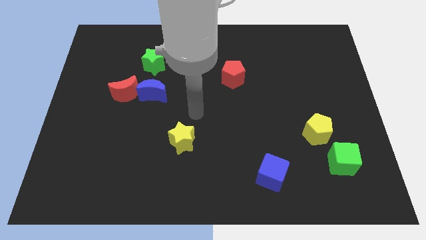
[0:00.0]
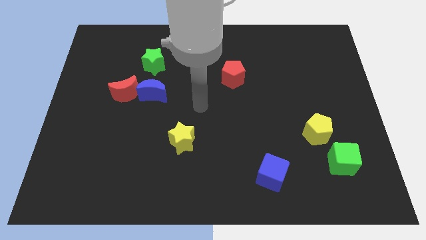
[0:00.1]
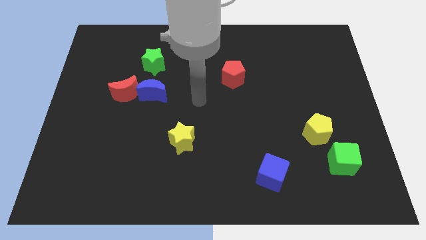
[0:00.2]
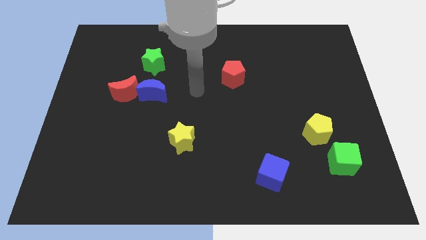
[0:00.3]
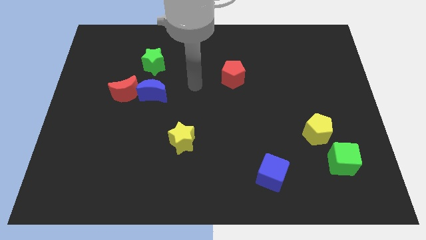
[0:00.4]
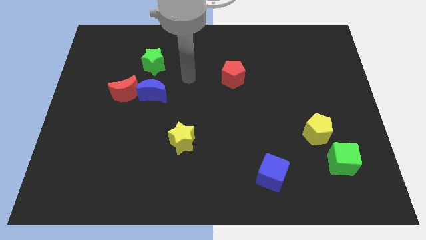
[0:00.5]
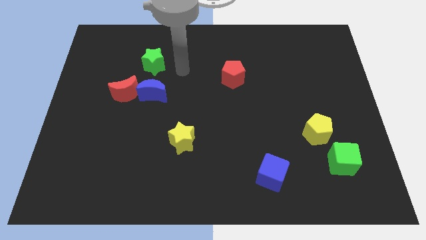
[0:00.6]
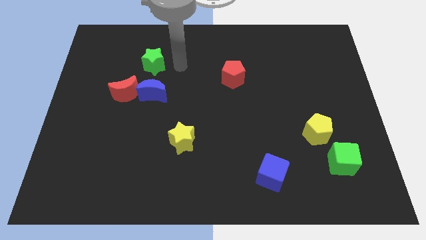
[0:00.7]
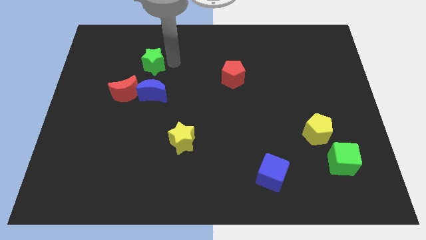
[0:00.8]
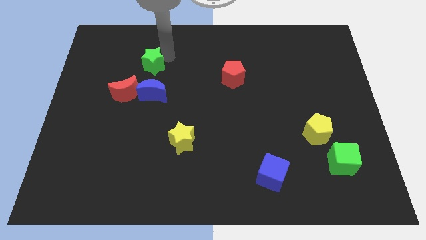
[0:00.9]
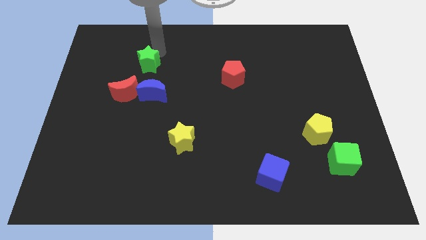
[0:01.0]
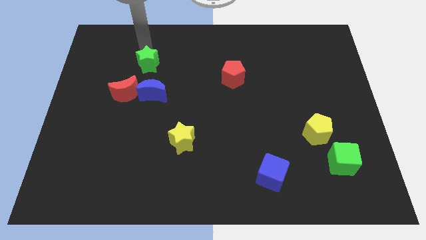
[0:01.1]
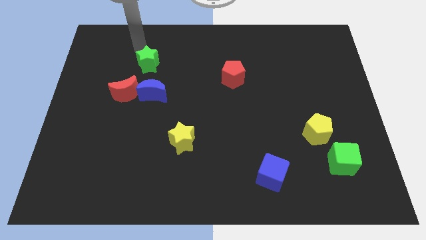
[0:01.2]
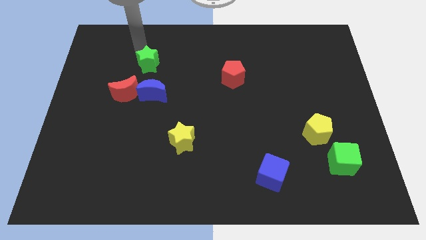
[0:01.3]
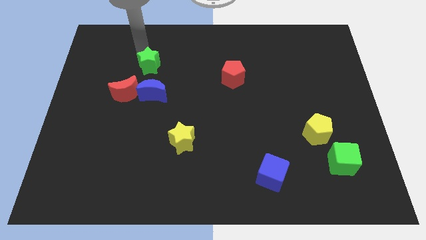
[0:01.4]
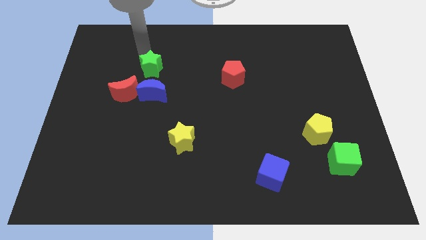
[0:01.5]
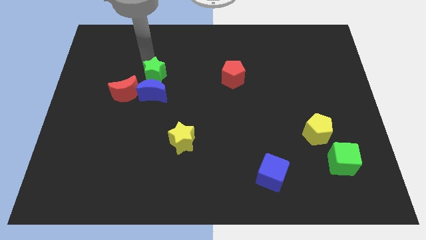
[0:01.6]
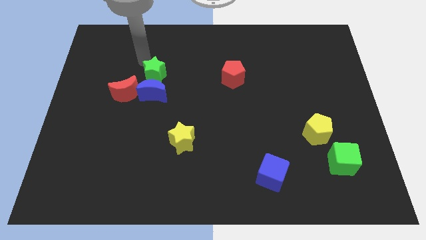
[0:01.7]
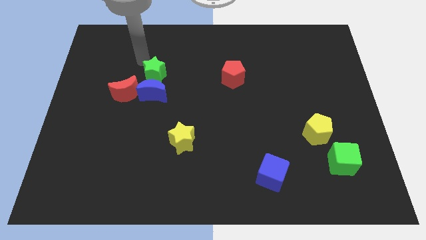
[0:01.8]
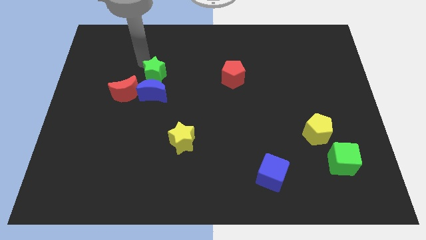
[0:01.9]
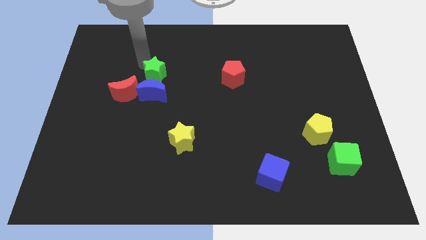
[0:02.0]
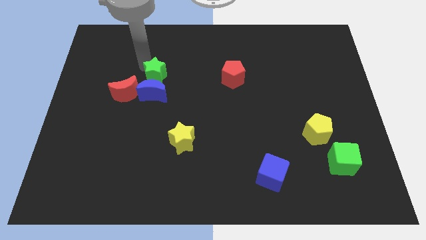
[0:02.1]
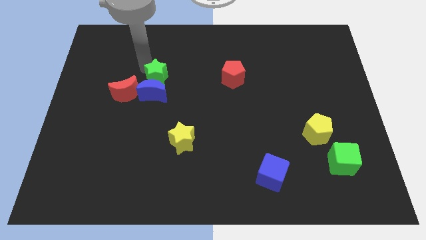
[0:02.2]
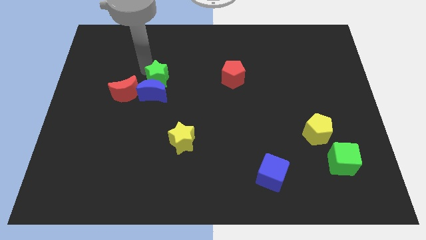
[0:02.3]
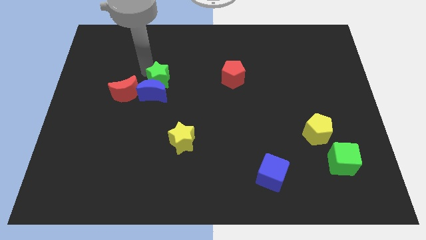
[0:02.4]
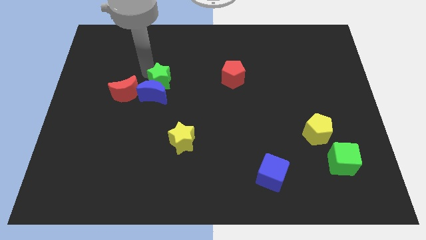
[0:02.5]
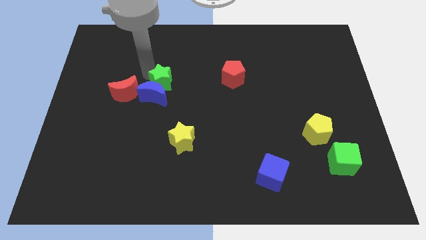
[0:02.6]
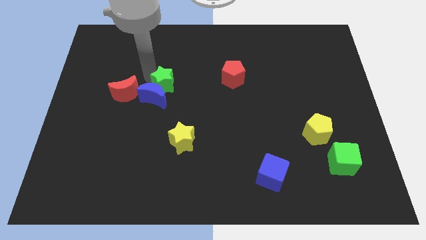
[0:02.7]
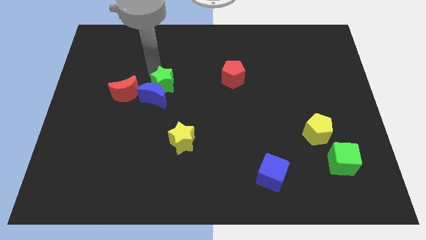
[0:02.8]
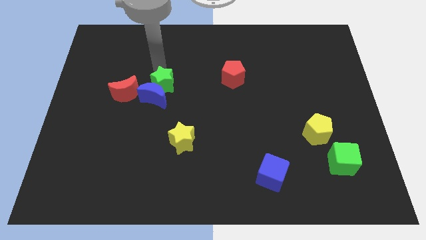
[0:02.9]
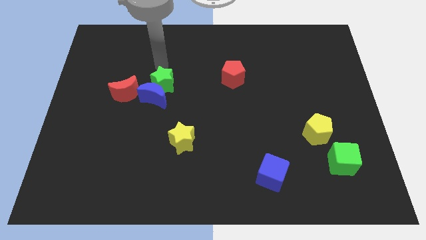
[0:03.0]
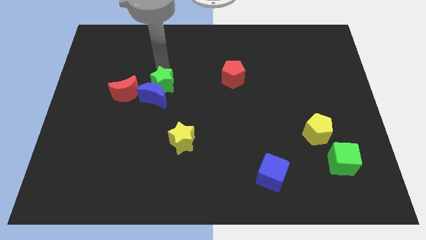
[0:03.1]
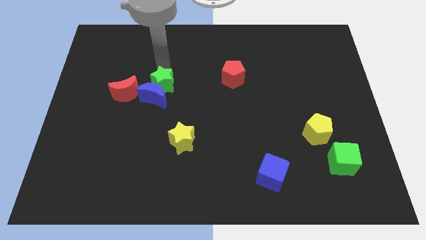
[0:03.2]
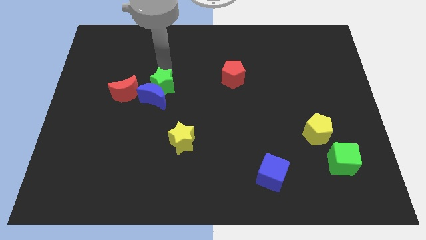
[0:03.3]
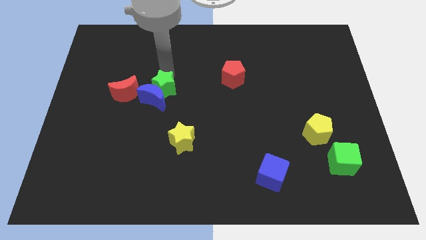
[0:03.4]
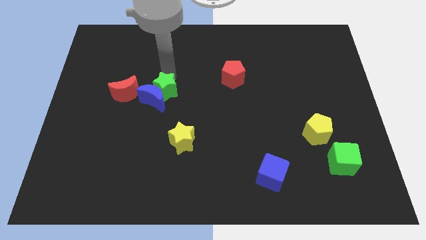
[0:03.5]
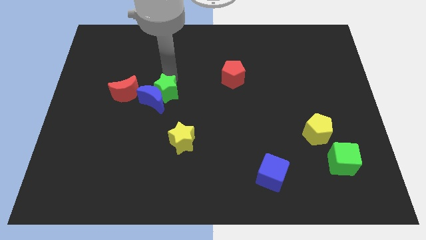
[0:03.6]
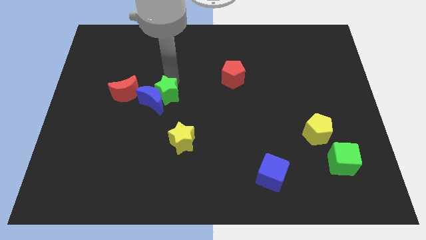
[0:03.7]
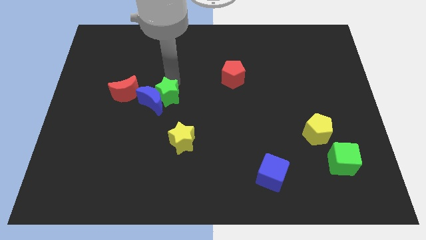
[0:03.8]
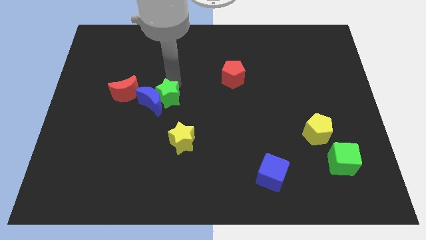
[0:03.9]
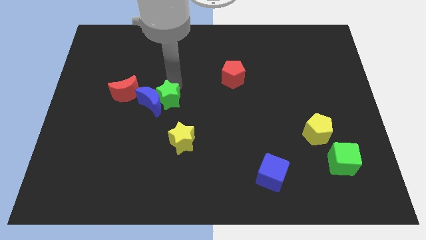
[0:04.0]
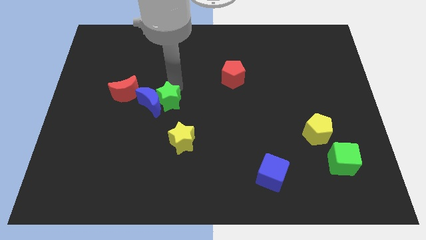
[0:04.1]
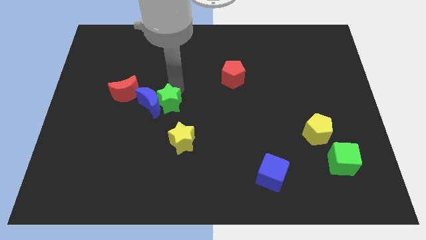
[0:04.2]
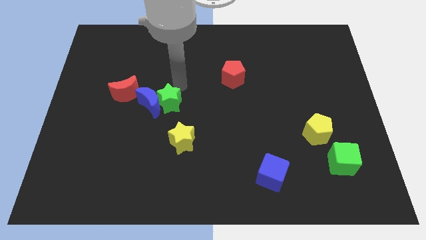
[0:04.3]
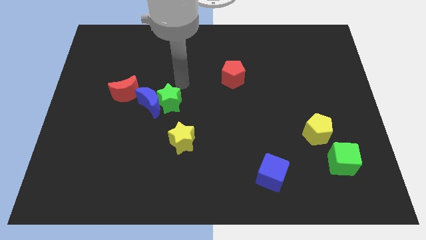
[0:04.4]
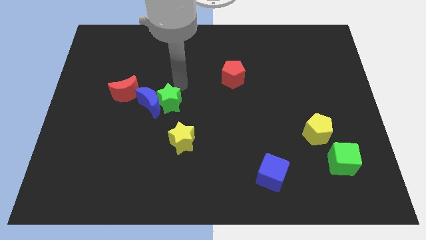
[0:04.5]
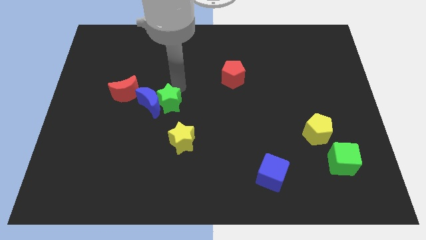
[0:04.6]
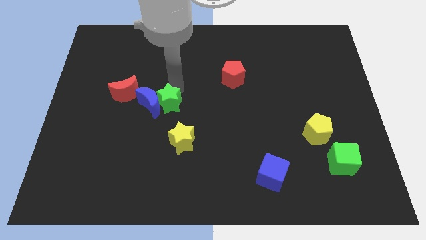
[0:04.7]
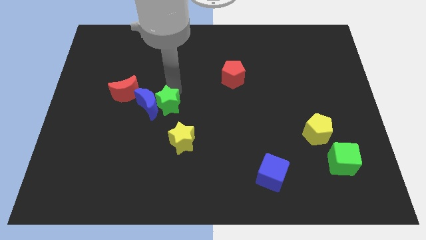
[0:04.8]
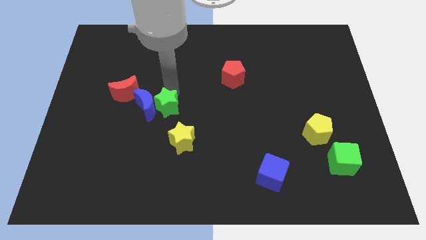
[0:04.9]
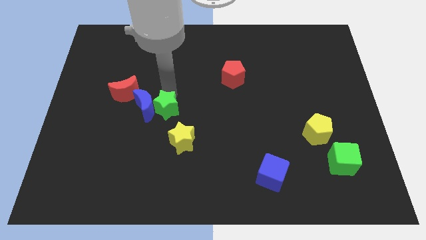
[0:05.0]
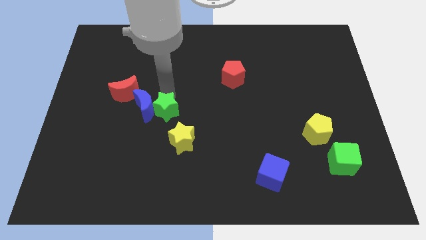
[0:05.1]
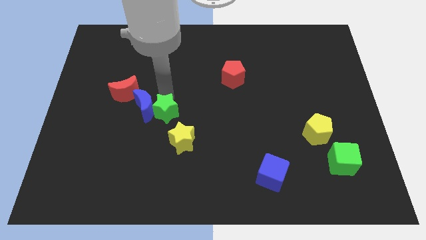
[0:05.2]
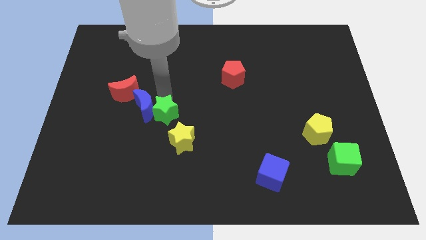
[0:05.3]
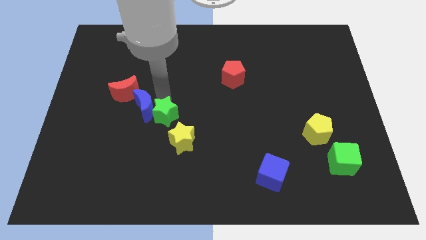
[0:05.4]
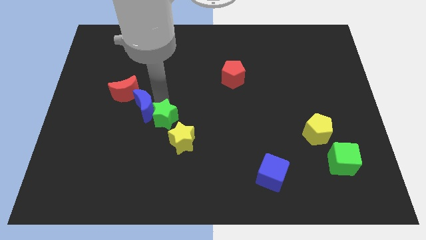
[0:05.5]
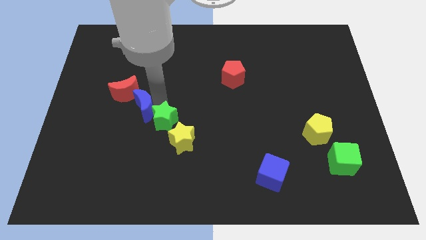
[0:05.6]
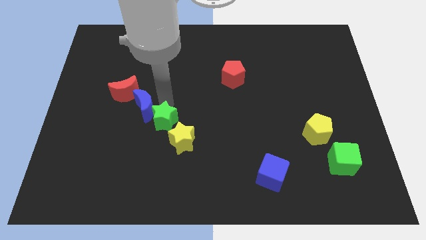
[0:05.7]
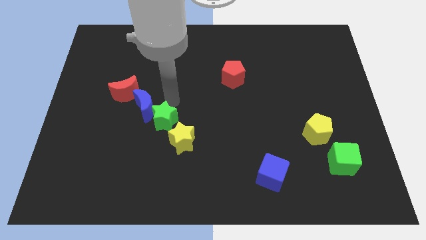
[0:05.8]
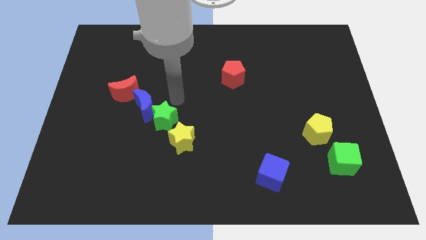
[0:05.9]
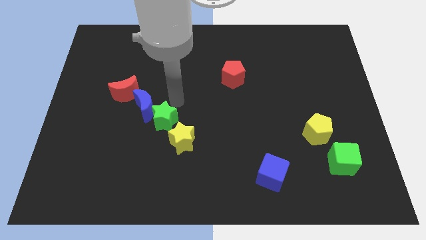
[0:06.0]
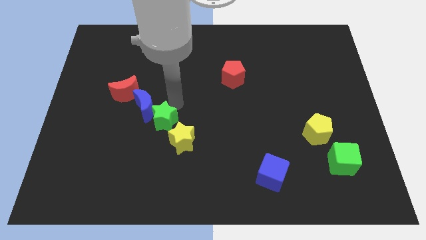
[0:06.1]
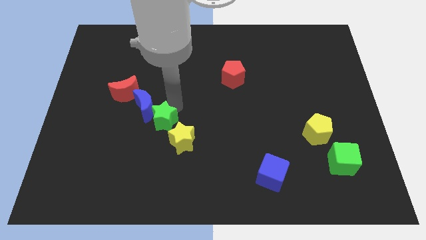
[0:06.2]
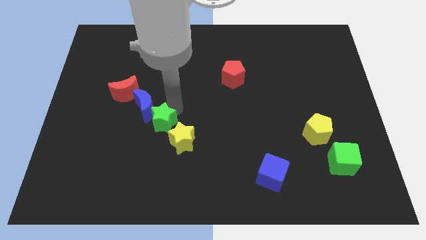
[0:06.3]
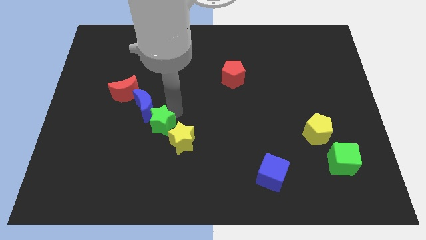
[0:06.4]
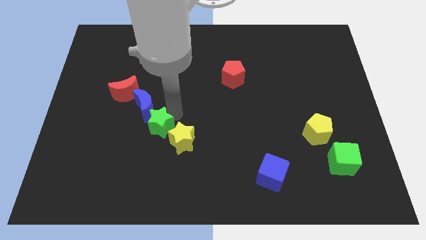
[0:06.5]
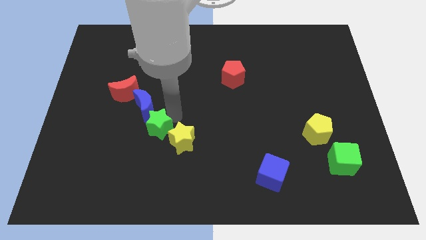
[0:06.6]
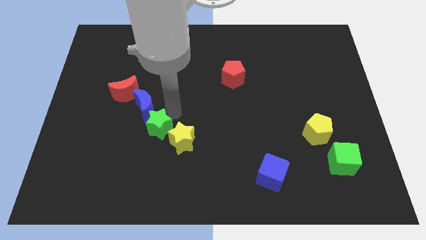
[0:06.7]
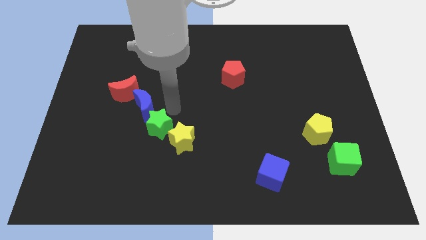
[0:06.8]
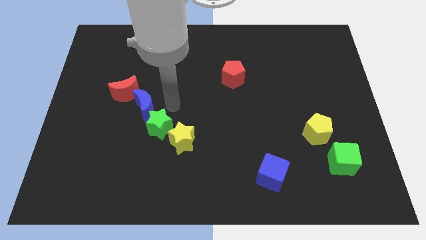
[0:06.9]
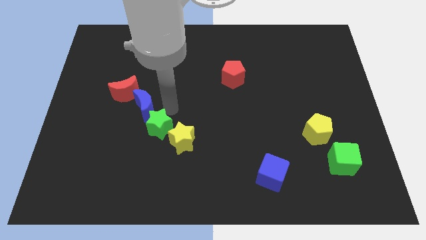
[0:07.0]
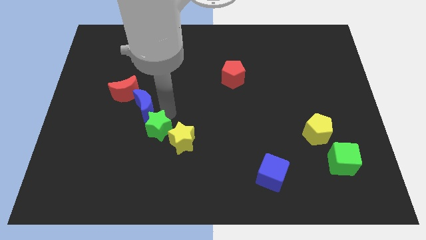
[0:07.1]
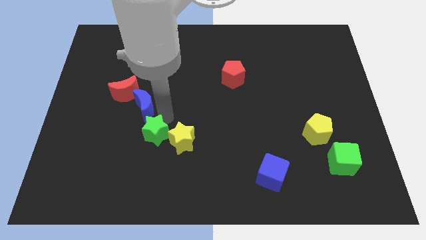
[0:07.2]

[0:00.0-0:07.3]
move the green star downwards

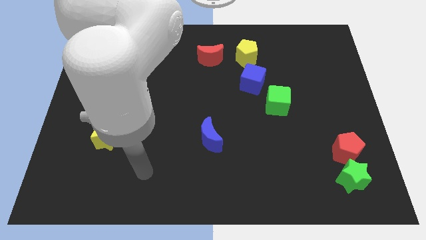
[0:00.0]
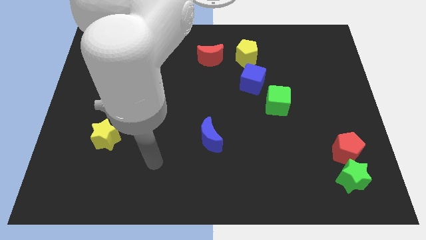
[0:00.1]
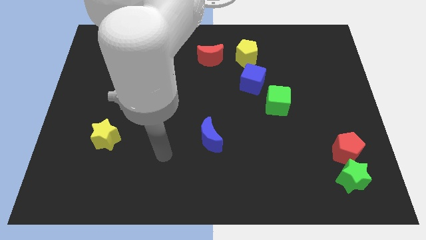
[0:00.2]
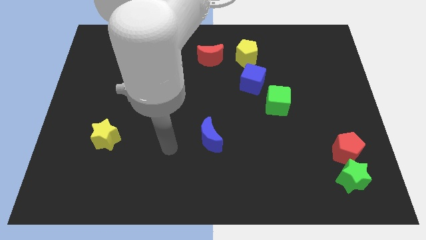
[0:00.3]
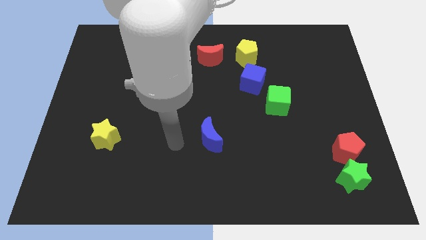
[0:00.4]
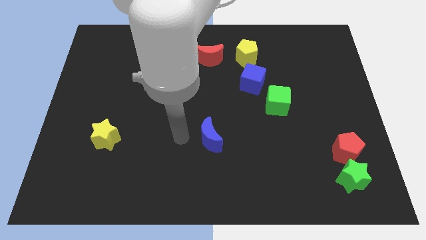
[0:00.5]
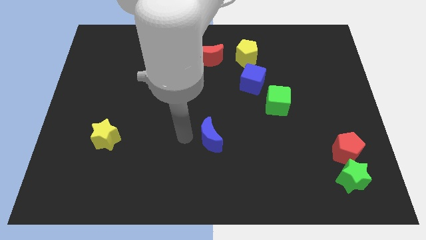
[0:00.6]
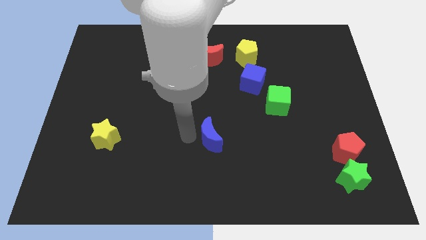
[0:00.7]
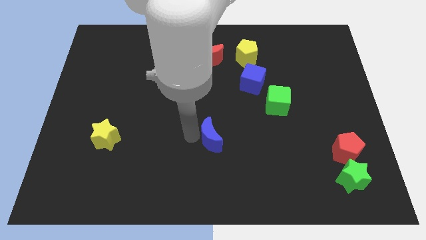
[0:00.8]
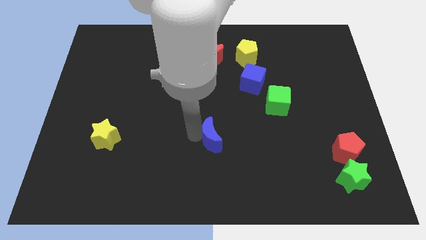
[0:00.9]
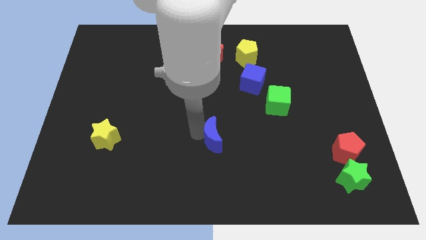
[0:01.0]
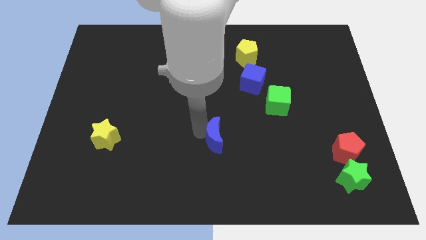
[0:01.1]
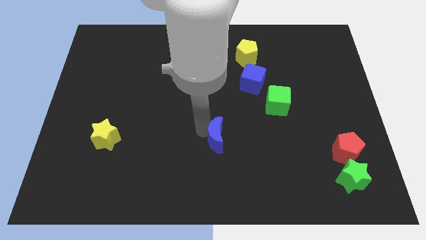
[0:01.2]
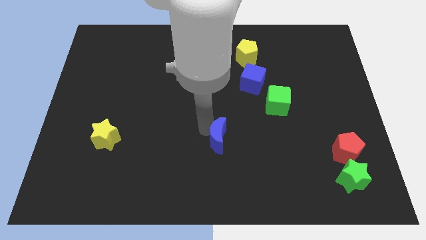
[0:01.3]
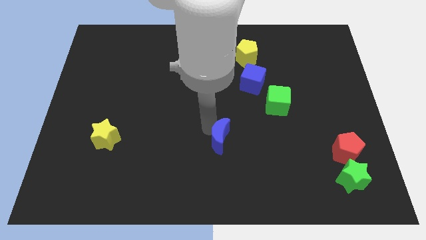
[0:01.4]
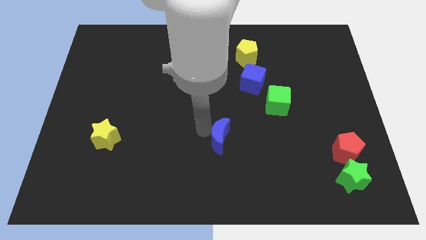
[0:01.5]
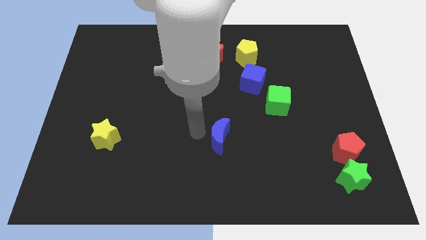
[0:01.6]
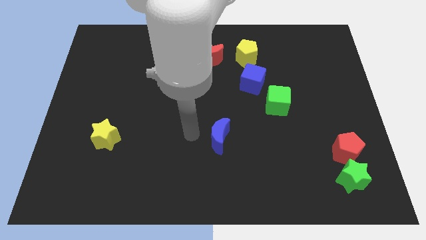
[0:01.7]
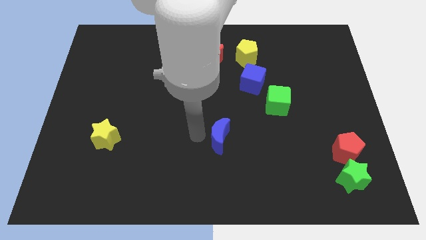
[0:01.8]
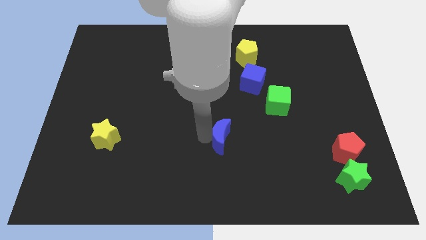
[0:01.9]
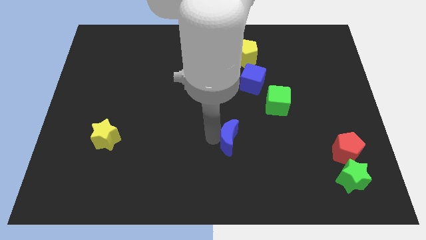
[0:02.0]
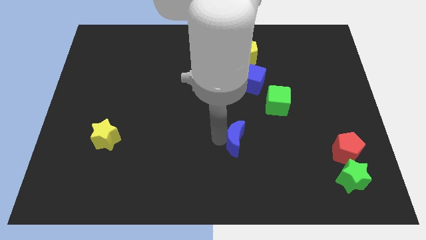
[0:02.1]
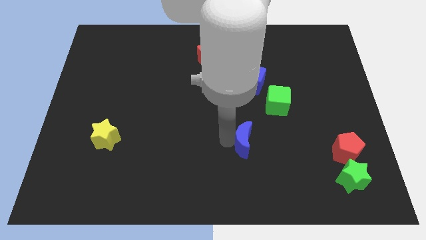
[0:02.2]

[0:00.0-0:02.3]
push the blue moon somewhat to the right
